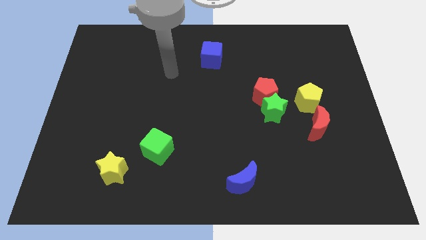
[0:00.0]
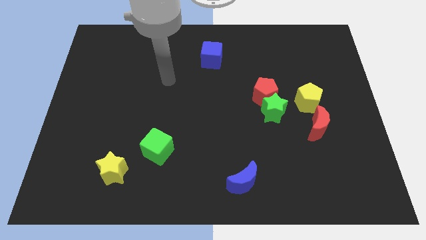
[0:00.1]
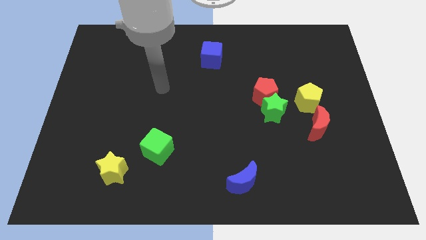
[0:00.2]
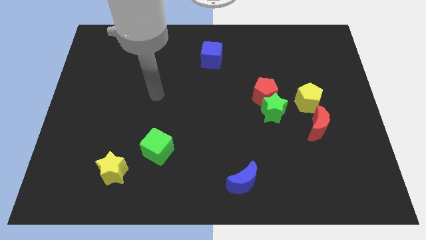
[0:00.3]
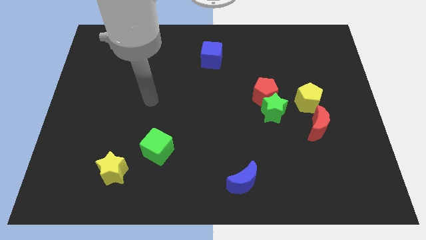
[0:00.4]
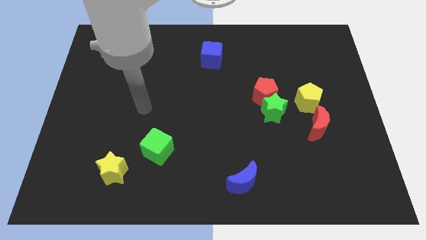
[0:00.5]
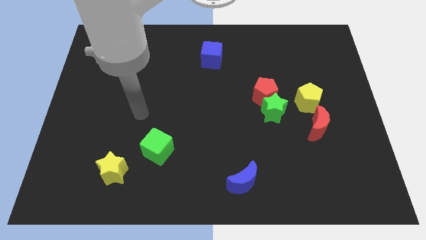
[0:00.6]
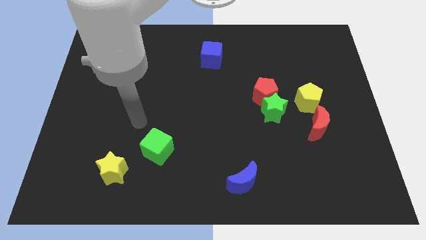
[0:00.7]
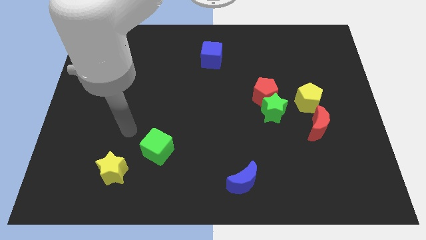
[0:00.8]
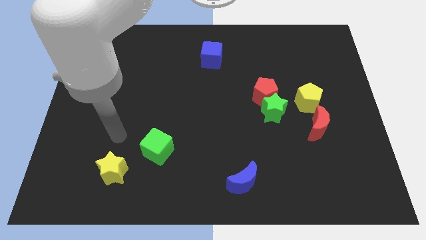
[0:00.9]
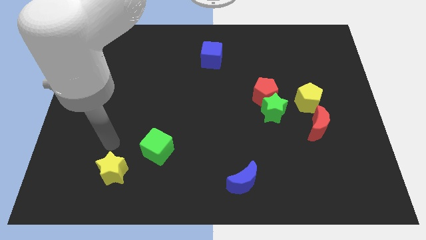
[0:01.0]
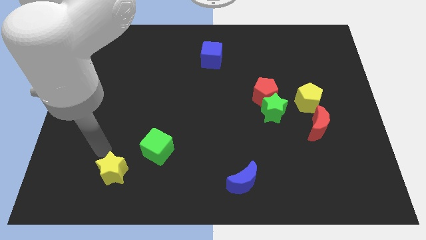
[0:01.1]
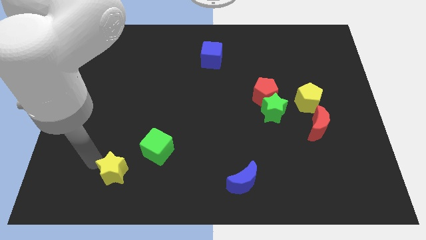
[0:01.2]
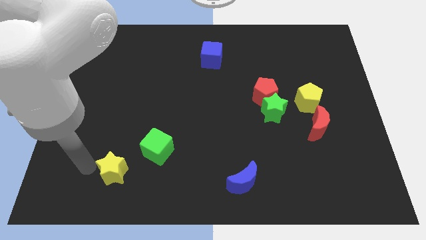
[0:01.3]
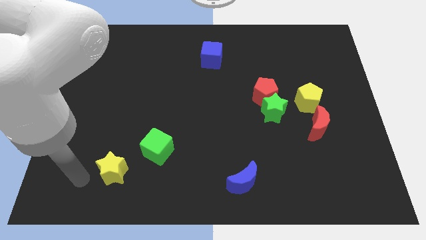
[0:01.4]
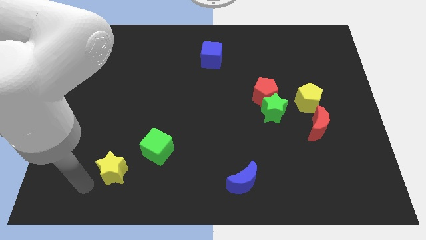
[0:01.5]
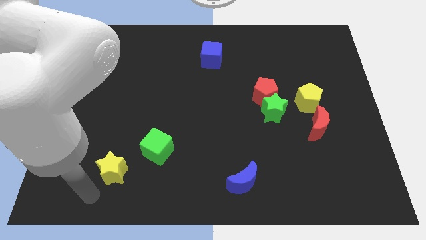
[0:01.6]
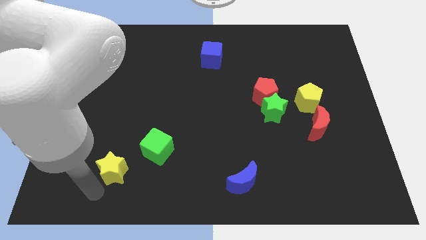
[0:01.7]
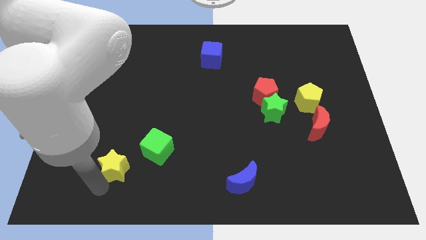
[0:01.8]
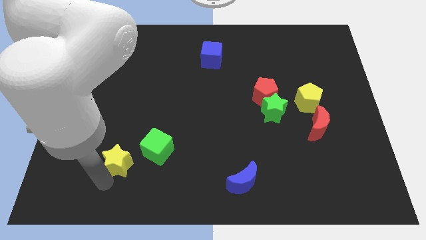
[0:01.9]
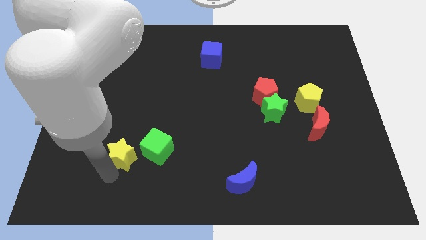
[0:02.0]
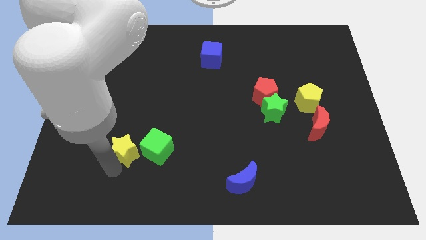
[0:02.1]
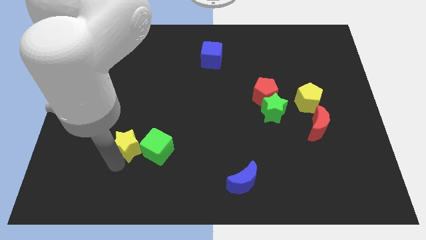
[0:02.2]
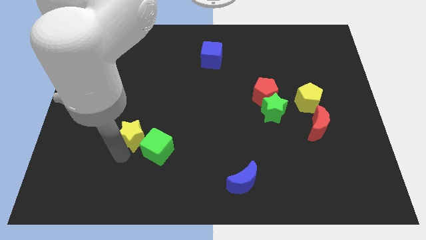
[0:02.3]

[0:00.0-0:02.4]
slide the yellow star up and right a little

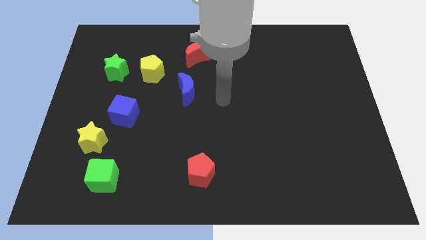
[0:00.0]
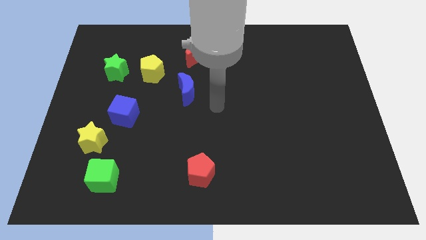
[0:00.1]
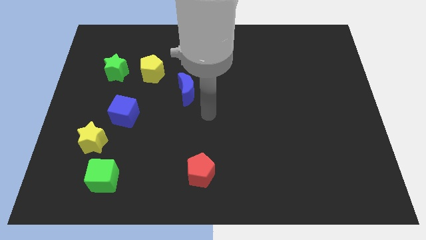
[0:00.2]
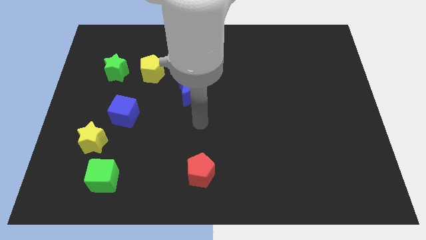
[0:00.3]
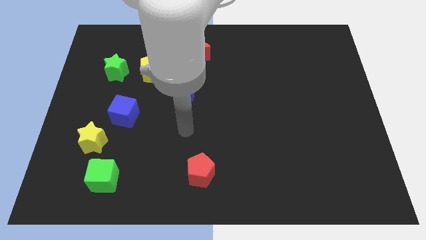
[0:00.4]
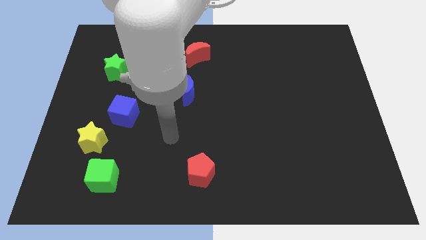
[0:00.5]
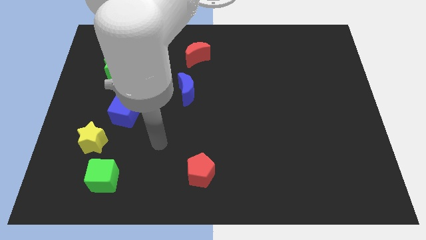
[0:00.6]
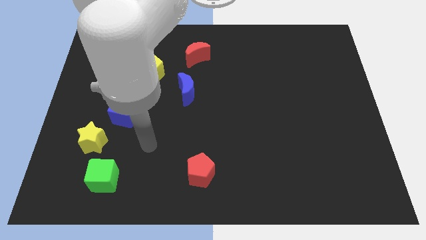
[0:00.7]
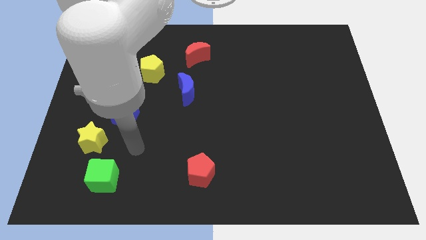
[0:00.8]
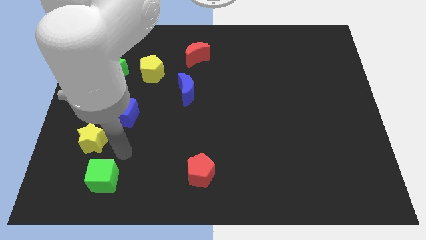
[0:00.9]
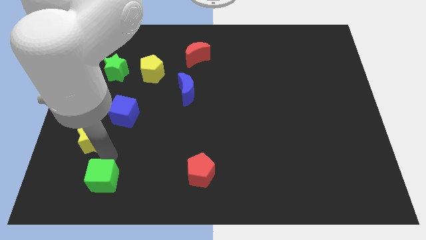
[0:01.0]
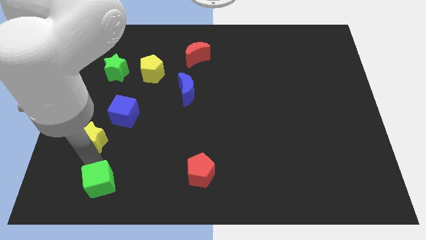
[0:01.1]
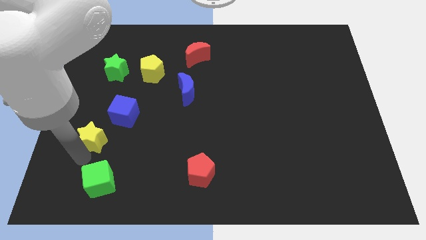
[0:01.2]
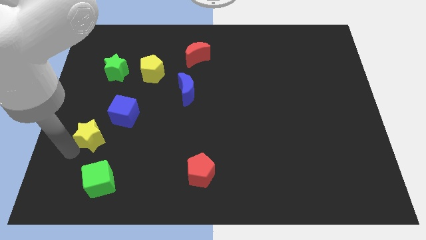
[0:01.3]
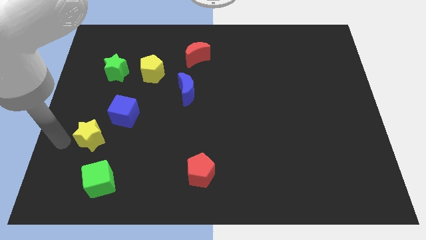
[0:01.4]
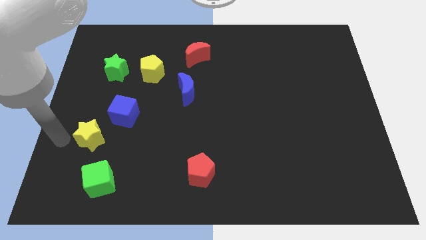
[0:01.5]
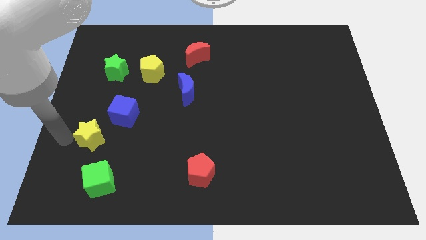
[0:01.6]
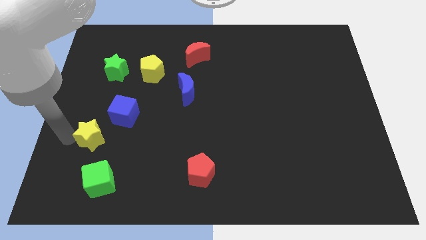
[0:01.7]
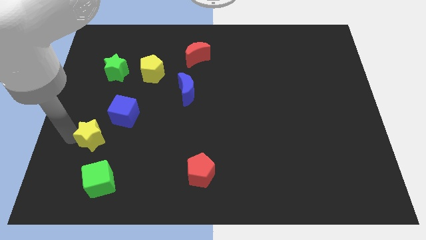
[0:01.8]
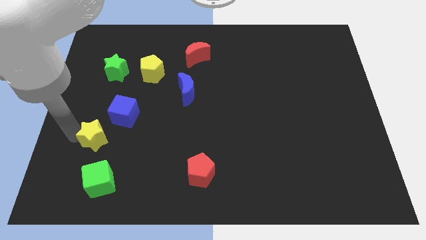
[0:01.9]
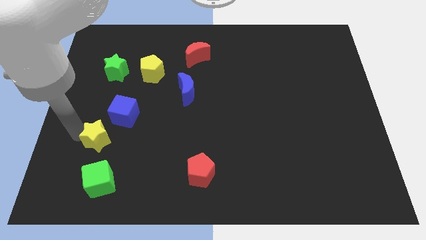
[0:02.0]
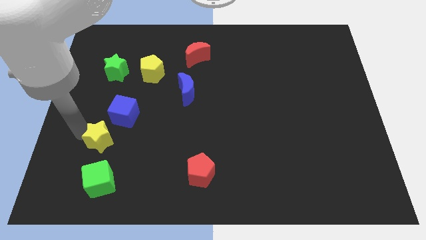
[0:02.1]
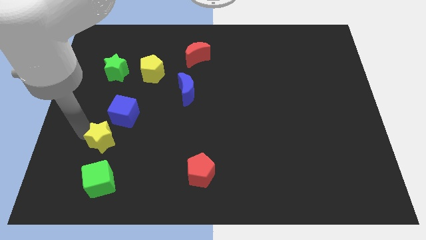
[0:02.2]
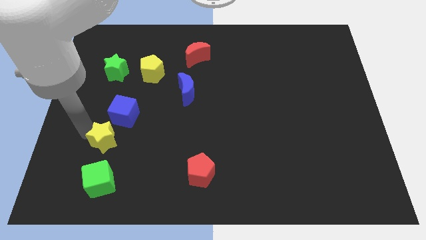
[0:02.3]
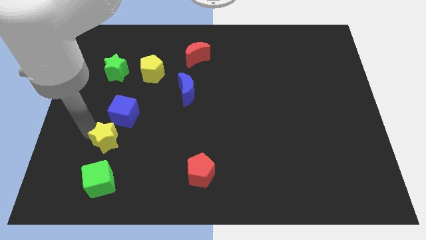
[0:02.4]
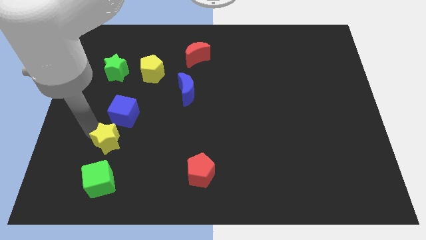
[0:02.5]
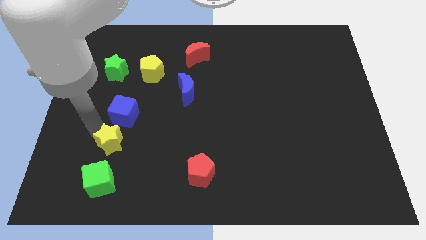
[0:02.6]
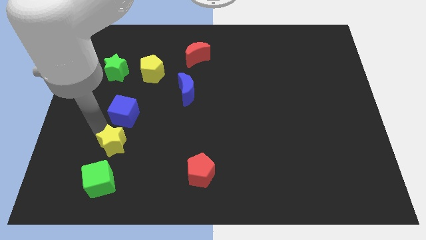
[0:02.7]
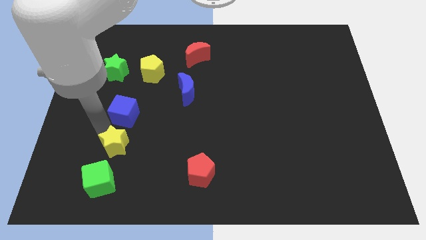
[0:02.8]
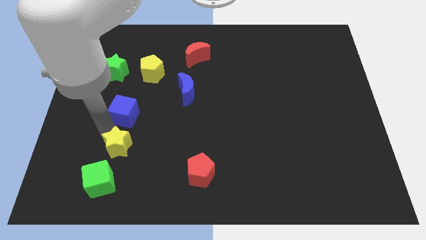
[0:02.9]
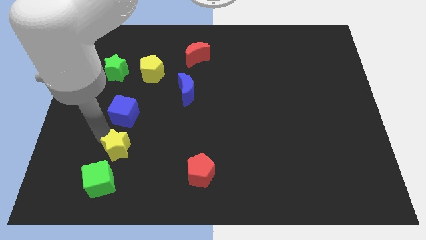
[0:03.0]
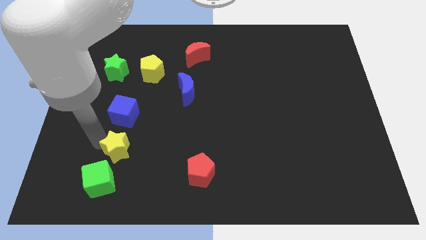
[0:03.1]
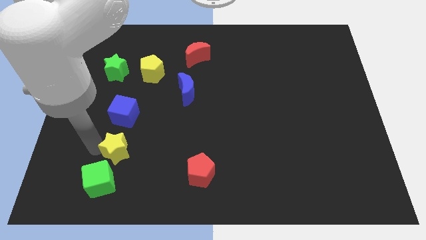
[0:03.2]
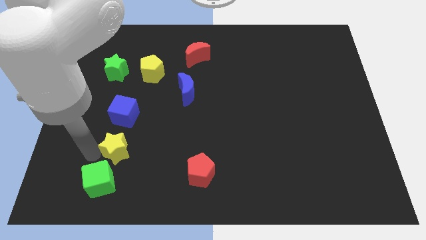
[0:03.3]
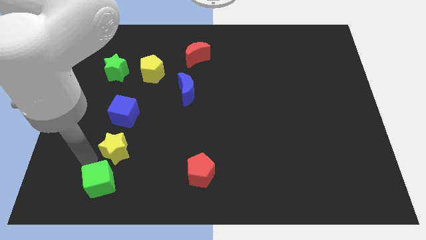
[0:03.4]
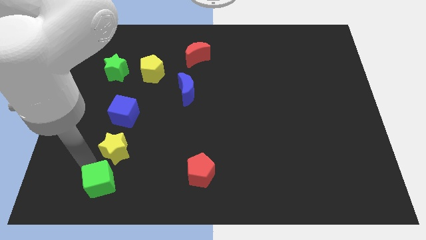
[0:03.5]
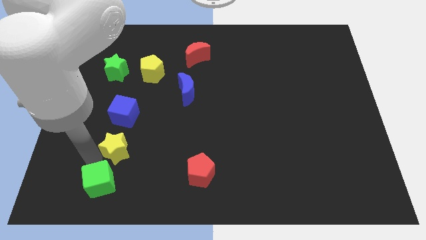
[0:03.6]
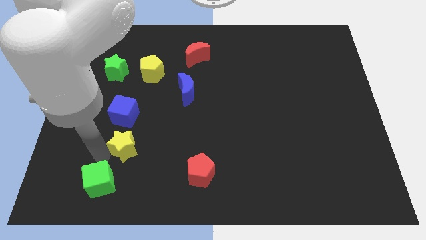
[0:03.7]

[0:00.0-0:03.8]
move the yellow star right somewhat

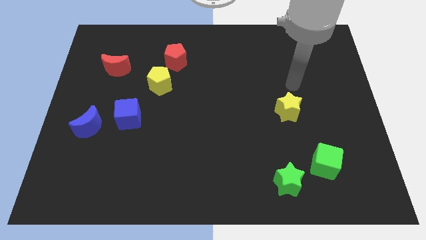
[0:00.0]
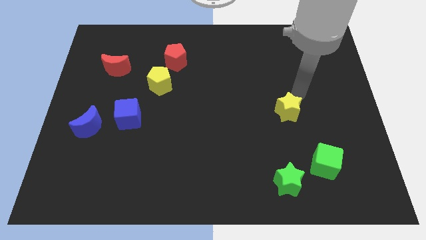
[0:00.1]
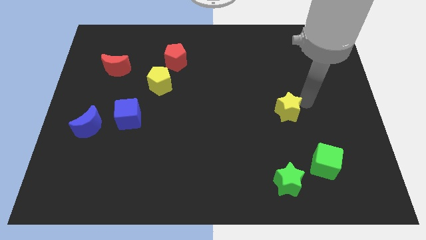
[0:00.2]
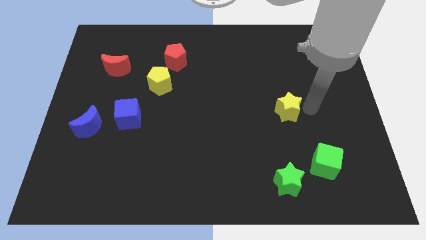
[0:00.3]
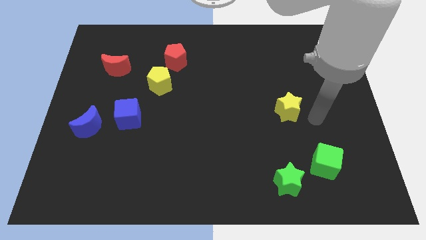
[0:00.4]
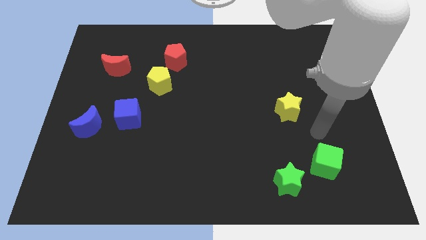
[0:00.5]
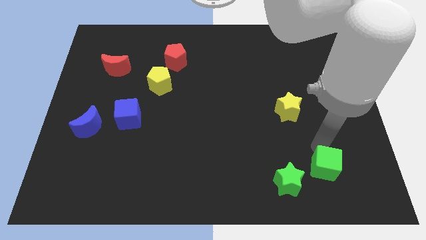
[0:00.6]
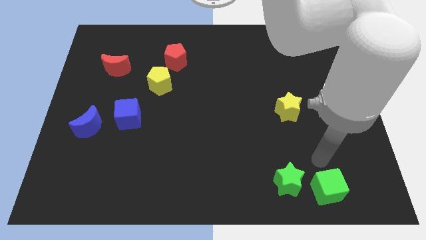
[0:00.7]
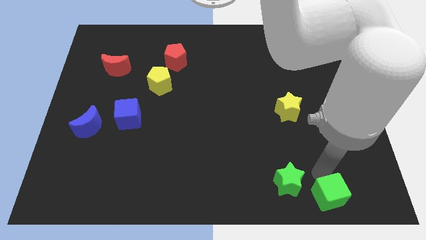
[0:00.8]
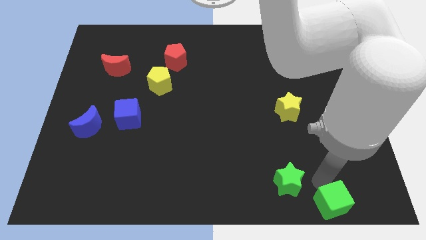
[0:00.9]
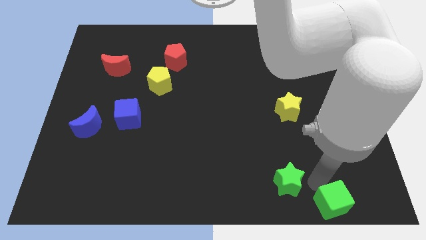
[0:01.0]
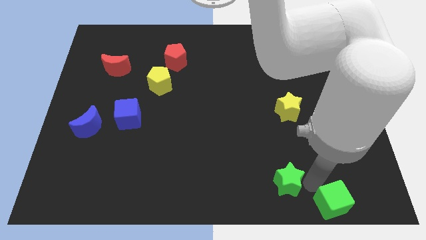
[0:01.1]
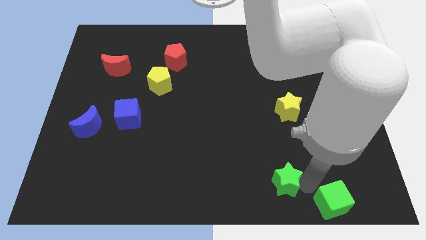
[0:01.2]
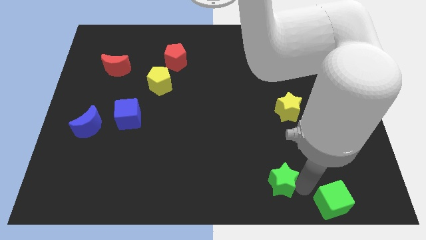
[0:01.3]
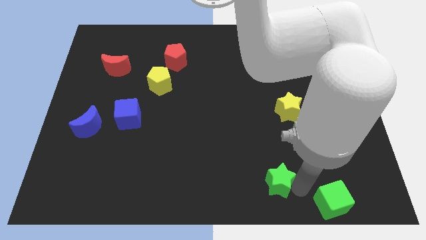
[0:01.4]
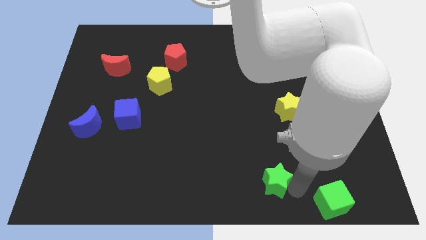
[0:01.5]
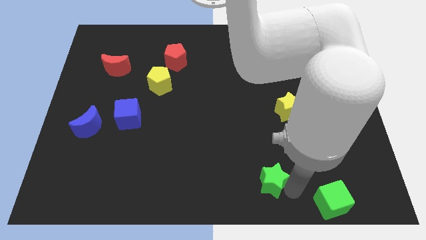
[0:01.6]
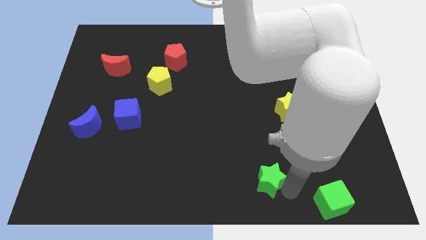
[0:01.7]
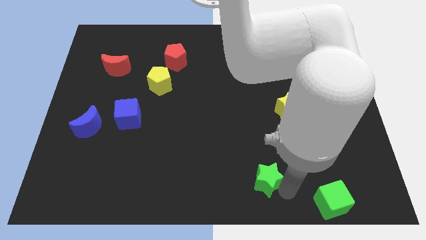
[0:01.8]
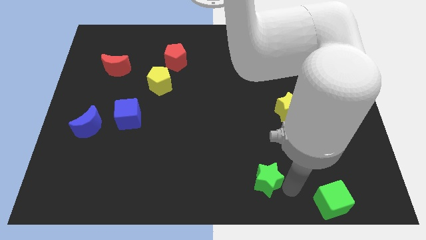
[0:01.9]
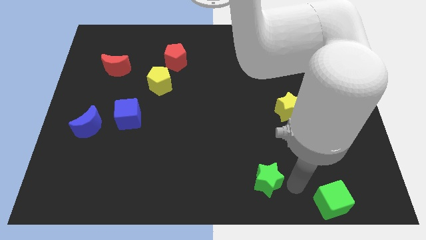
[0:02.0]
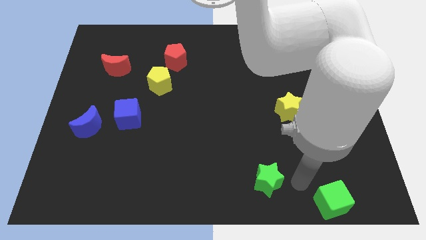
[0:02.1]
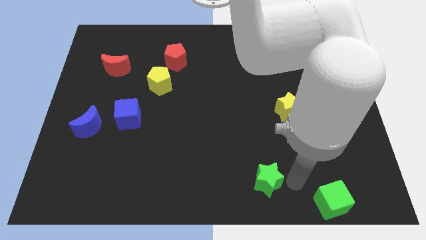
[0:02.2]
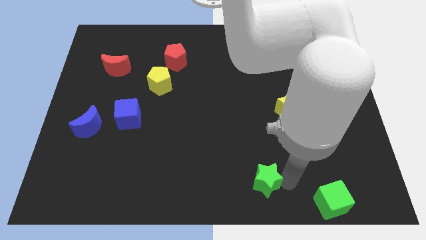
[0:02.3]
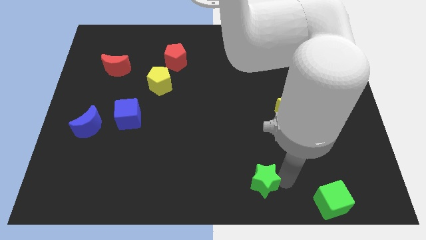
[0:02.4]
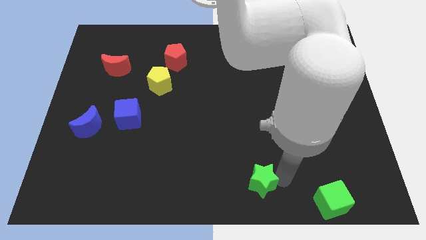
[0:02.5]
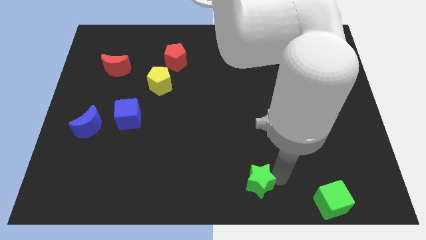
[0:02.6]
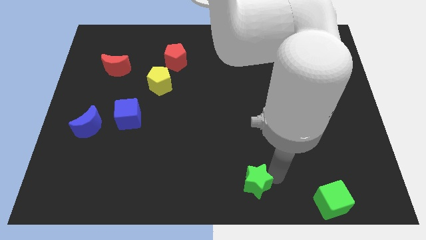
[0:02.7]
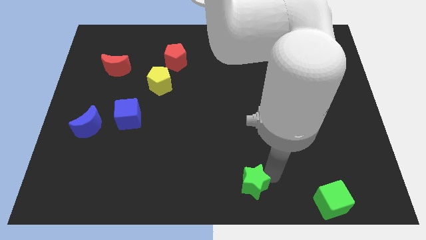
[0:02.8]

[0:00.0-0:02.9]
move the green star somewhat to the left
